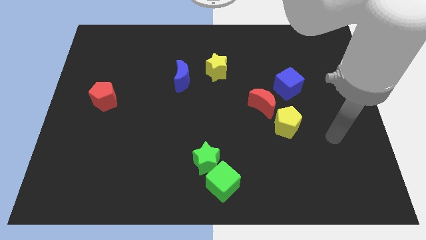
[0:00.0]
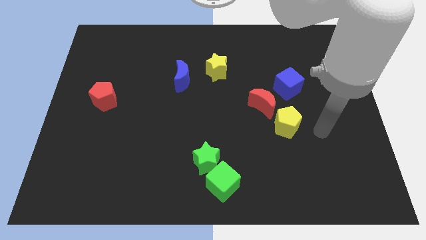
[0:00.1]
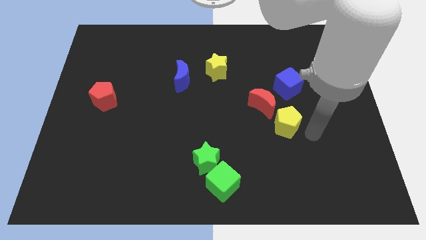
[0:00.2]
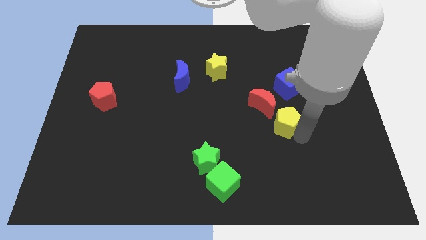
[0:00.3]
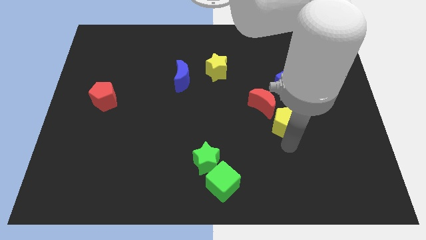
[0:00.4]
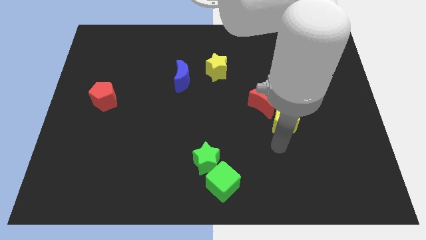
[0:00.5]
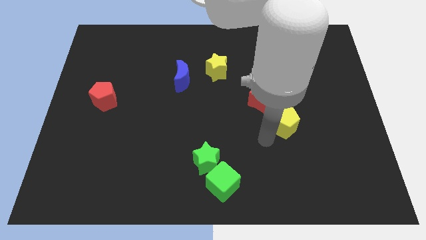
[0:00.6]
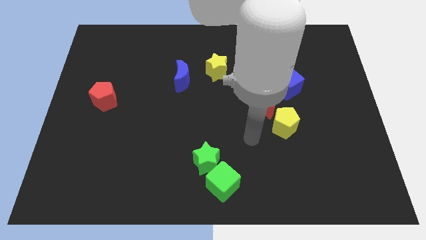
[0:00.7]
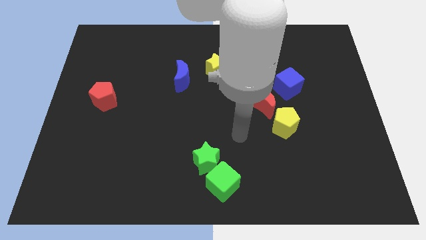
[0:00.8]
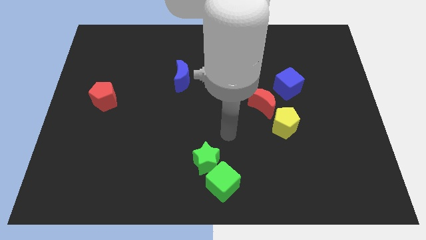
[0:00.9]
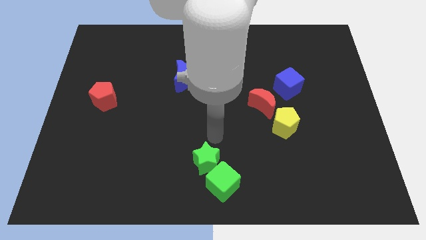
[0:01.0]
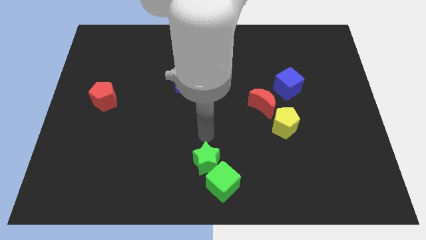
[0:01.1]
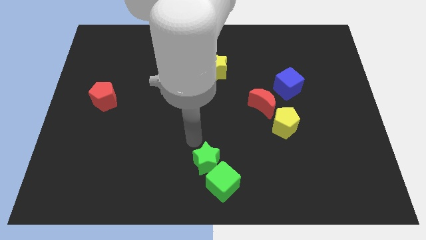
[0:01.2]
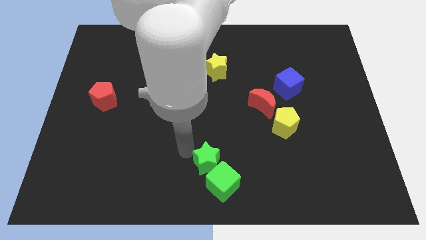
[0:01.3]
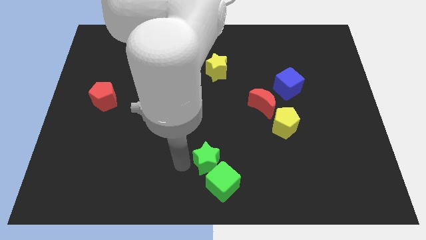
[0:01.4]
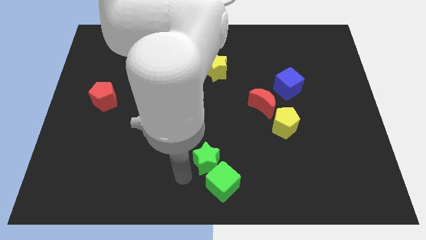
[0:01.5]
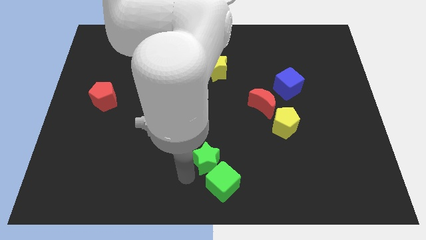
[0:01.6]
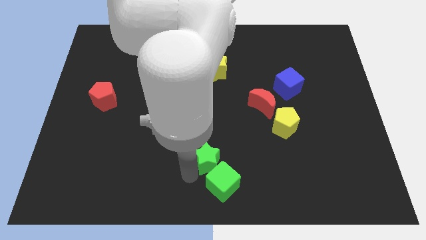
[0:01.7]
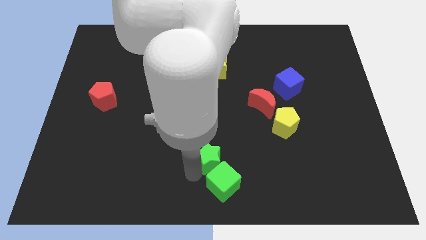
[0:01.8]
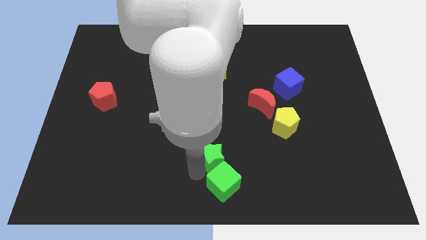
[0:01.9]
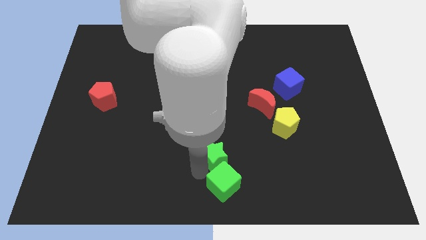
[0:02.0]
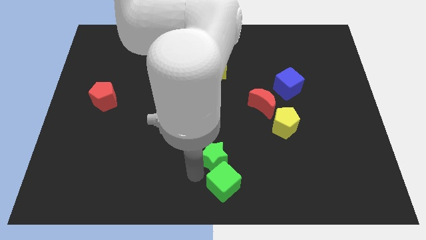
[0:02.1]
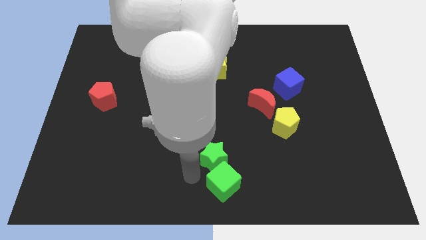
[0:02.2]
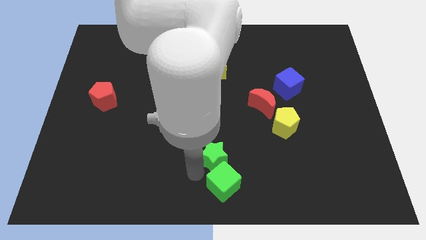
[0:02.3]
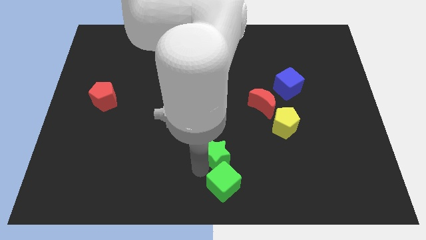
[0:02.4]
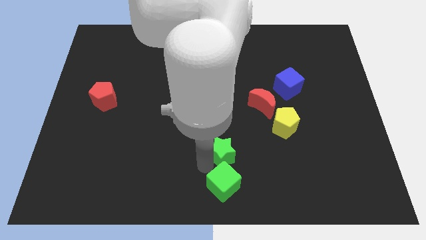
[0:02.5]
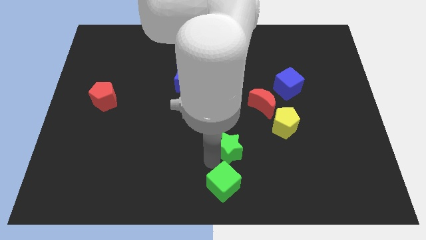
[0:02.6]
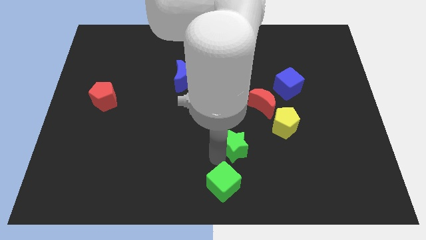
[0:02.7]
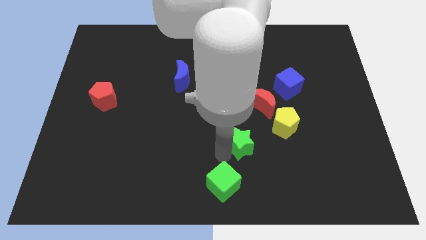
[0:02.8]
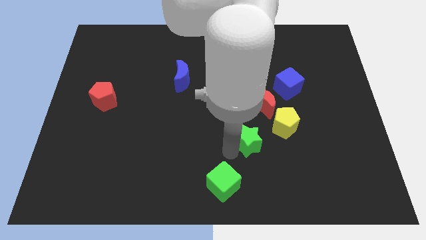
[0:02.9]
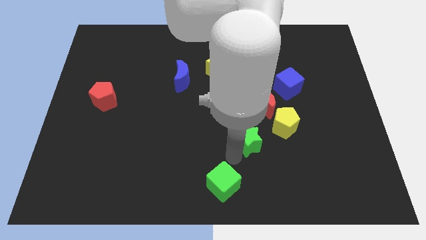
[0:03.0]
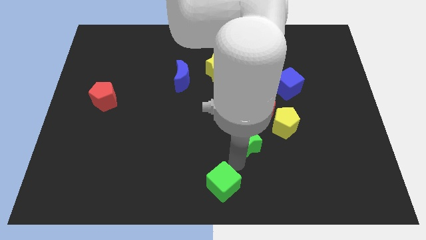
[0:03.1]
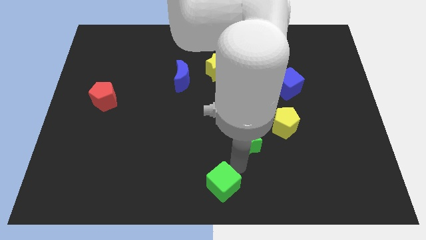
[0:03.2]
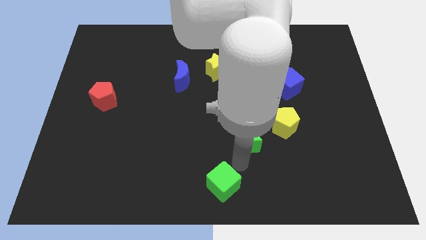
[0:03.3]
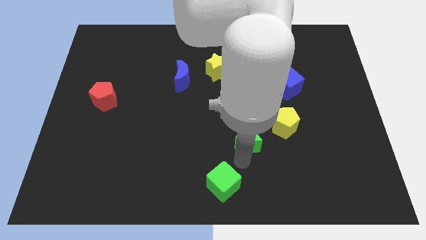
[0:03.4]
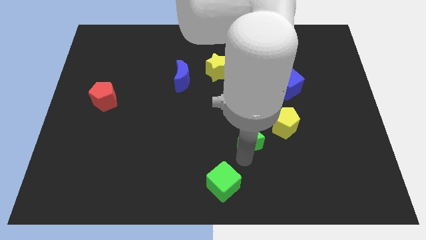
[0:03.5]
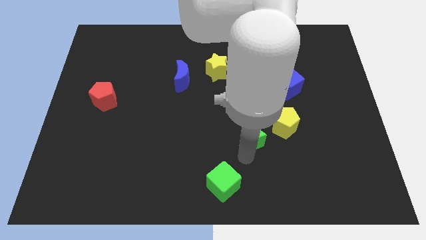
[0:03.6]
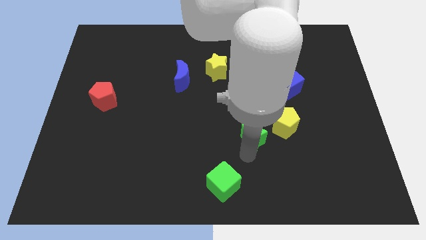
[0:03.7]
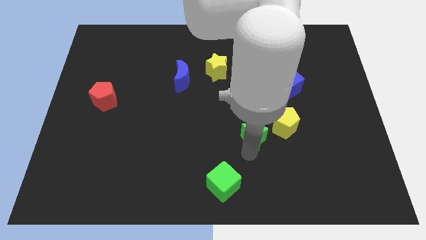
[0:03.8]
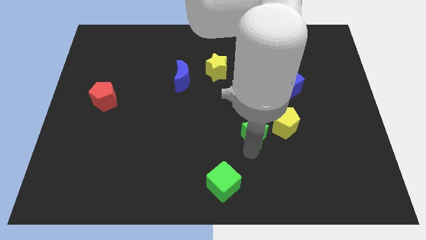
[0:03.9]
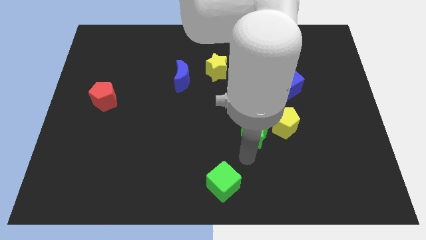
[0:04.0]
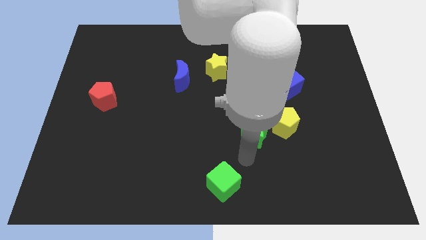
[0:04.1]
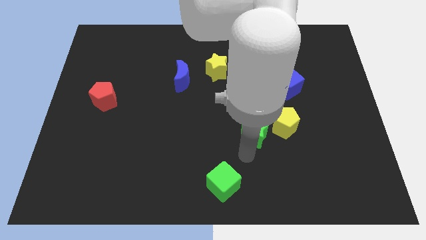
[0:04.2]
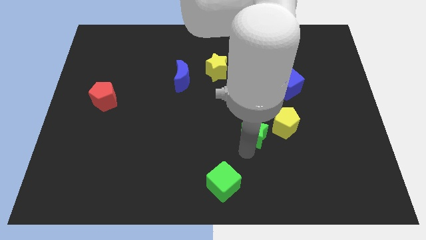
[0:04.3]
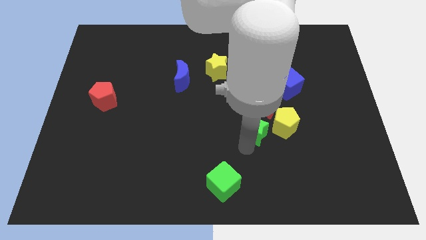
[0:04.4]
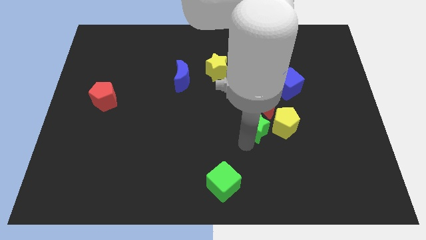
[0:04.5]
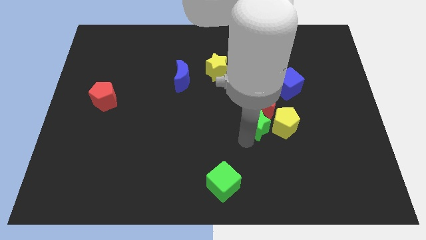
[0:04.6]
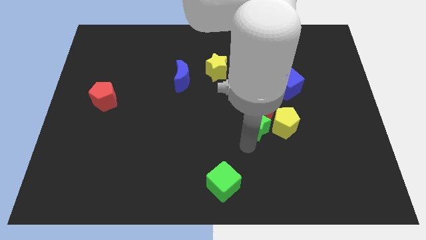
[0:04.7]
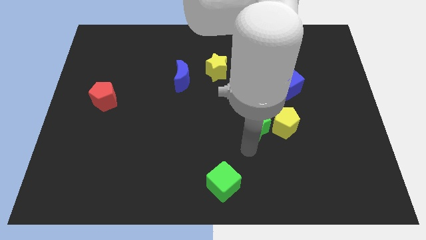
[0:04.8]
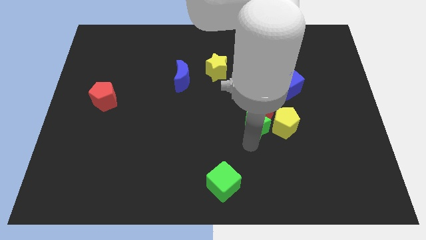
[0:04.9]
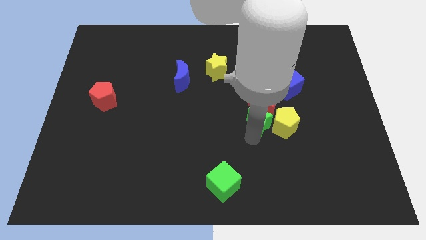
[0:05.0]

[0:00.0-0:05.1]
slide the green star close to the red moon

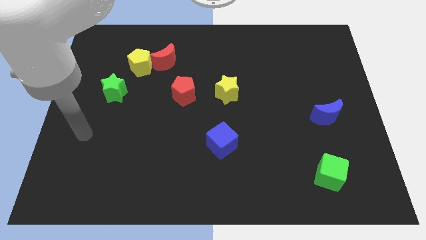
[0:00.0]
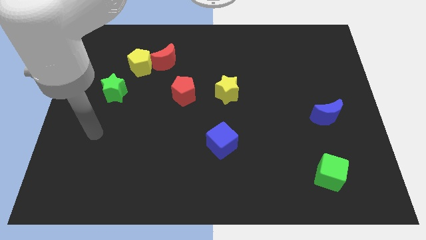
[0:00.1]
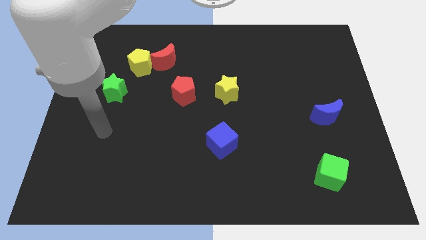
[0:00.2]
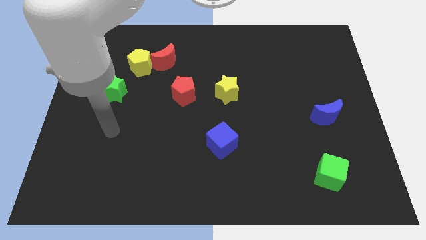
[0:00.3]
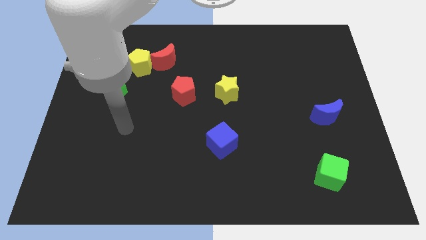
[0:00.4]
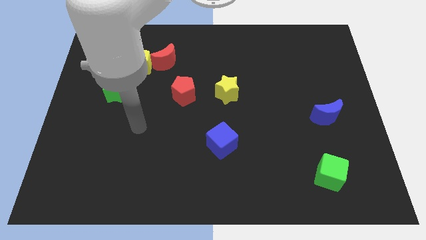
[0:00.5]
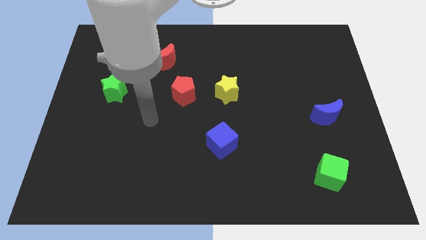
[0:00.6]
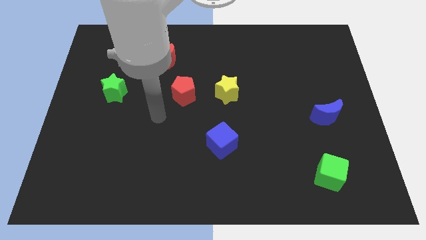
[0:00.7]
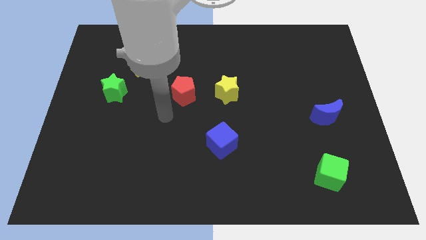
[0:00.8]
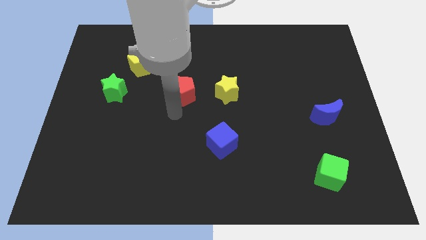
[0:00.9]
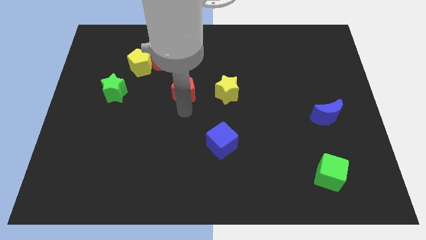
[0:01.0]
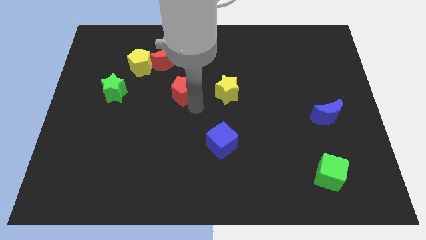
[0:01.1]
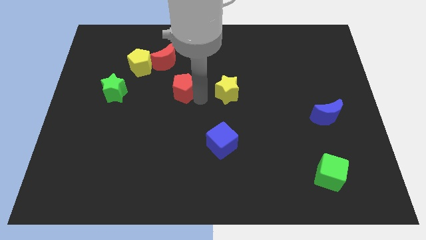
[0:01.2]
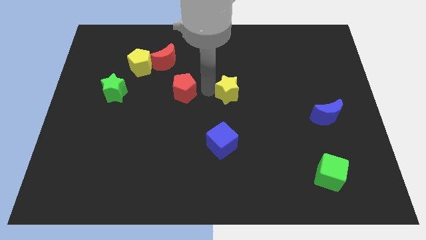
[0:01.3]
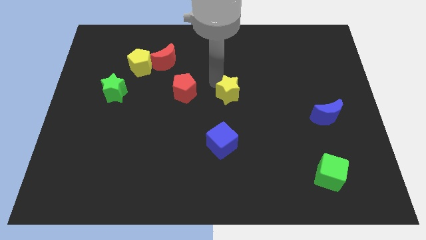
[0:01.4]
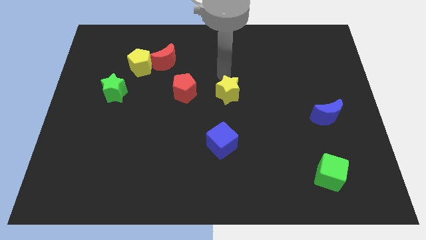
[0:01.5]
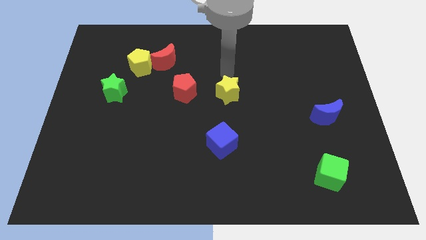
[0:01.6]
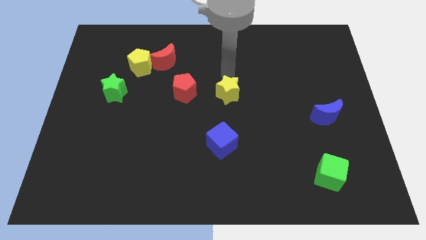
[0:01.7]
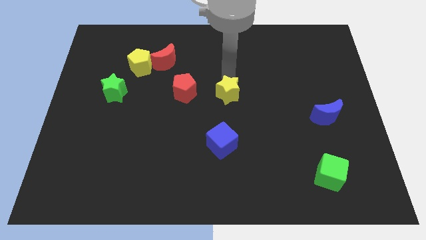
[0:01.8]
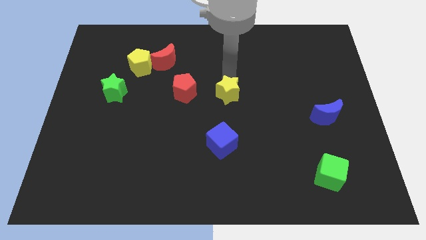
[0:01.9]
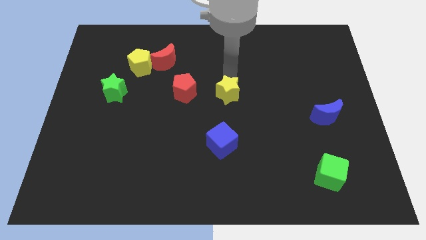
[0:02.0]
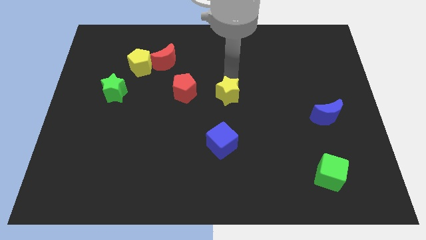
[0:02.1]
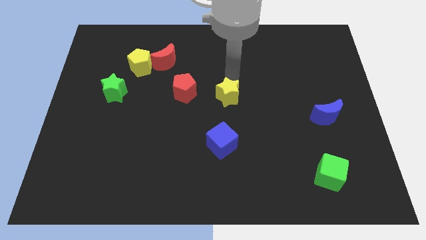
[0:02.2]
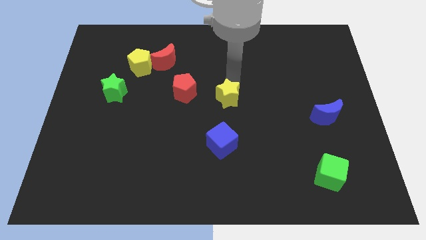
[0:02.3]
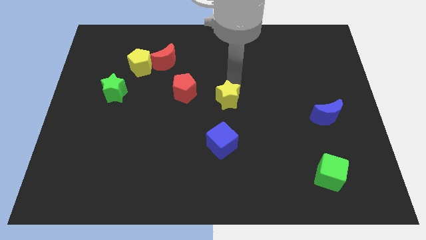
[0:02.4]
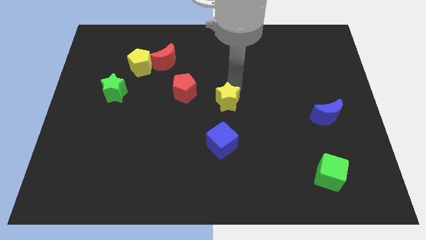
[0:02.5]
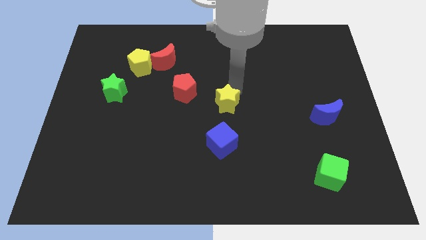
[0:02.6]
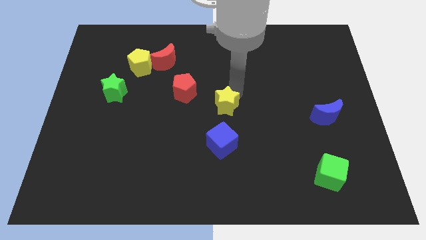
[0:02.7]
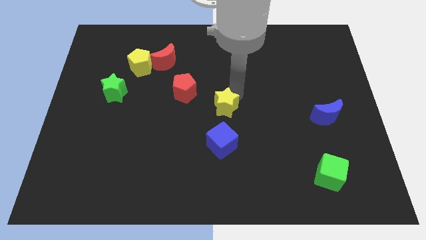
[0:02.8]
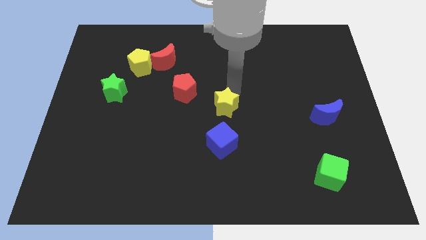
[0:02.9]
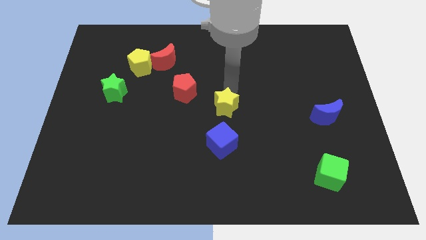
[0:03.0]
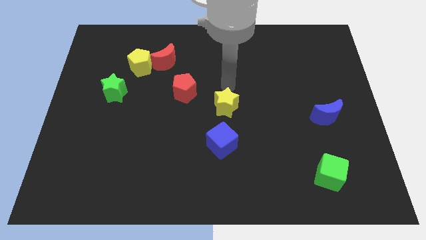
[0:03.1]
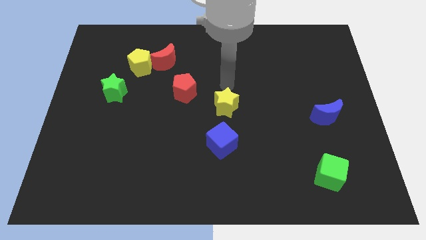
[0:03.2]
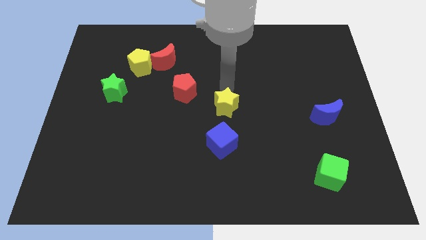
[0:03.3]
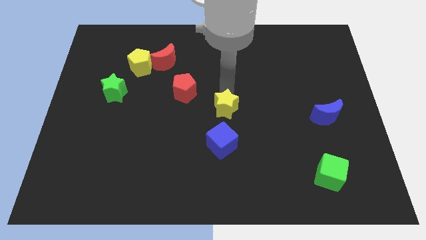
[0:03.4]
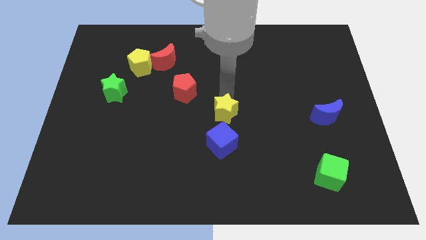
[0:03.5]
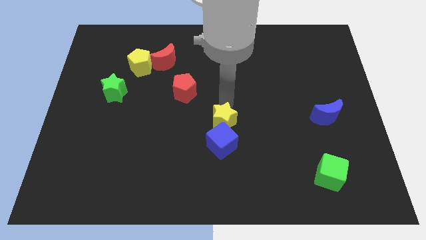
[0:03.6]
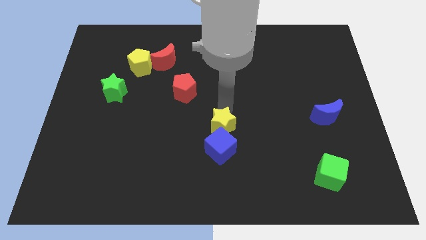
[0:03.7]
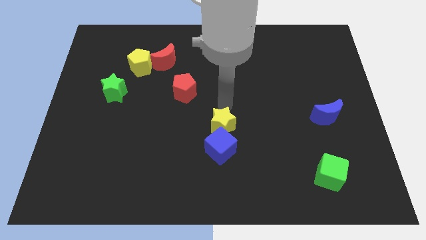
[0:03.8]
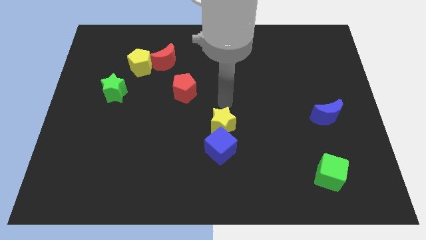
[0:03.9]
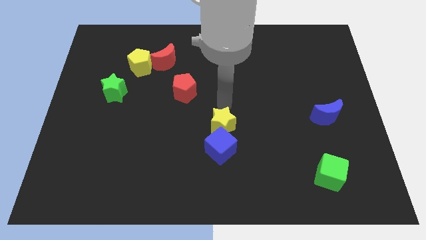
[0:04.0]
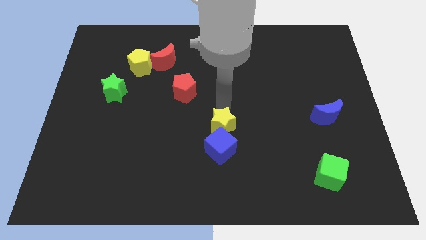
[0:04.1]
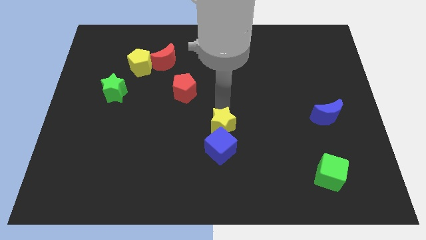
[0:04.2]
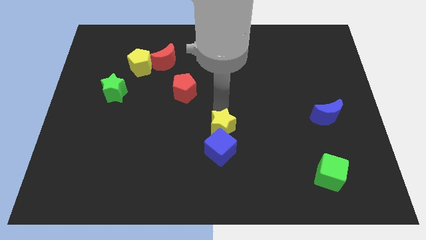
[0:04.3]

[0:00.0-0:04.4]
put the yellow star close to the blue cube
